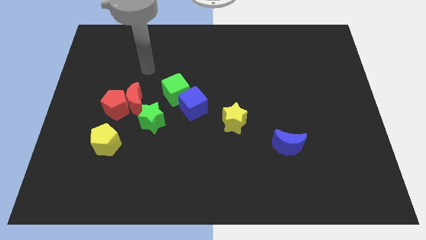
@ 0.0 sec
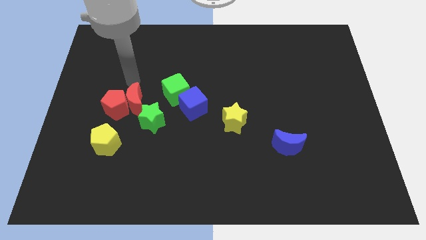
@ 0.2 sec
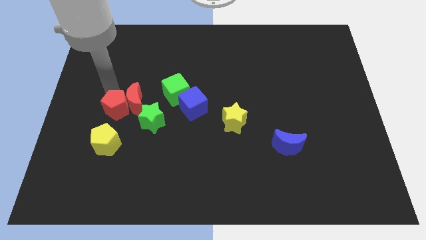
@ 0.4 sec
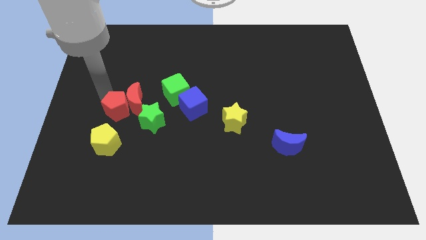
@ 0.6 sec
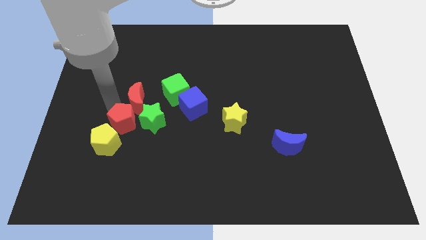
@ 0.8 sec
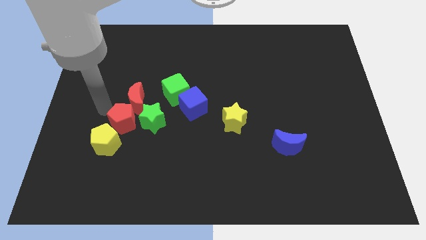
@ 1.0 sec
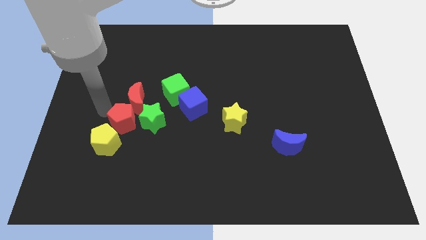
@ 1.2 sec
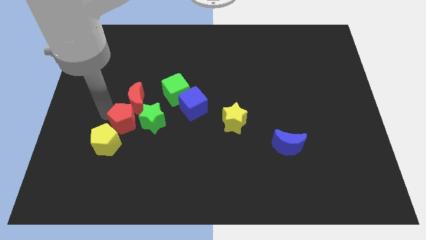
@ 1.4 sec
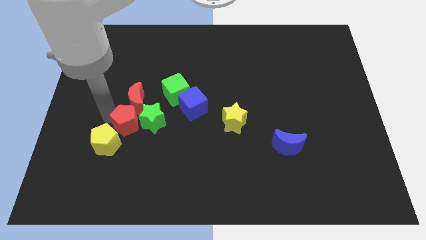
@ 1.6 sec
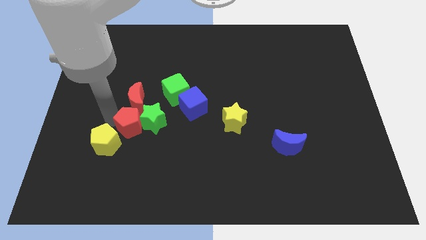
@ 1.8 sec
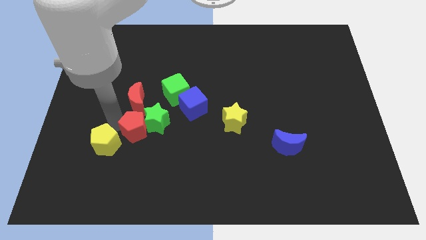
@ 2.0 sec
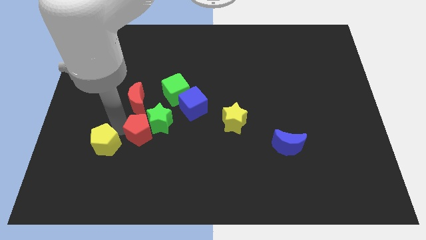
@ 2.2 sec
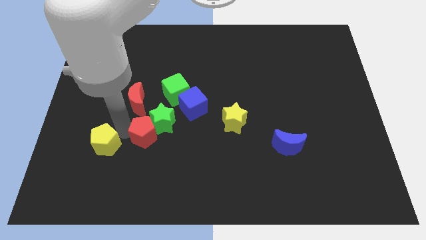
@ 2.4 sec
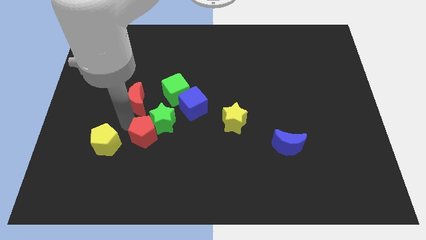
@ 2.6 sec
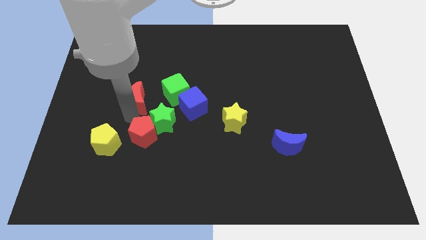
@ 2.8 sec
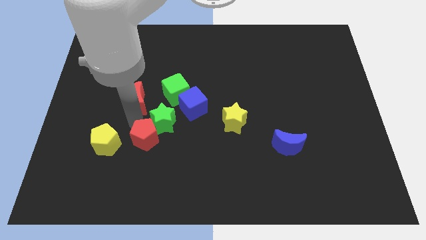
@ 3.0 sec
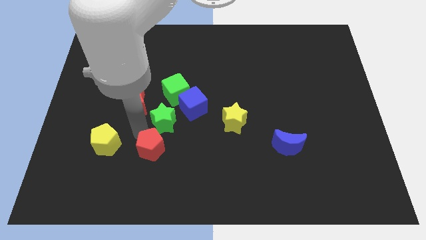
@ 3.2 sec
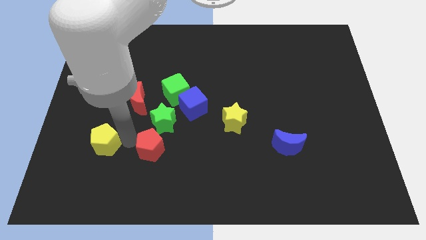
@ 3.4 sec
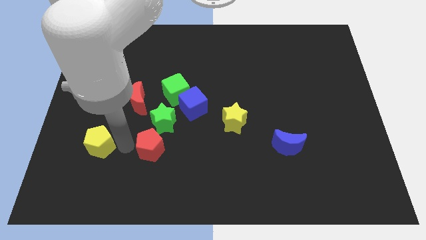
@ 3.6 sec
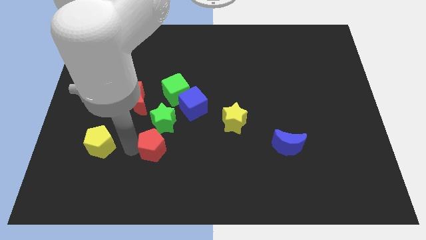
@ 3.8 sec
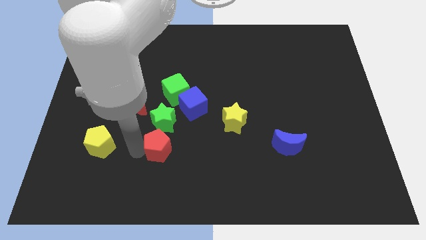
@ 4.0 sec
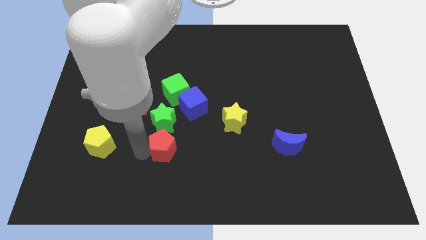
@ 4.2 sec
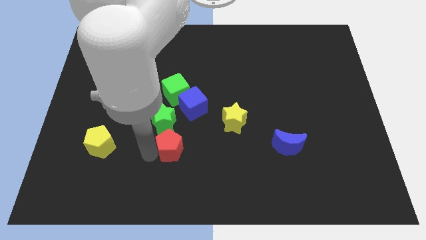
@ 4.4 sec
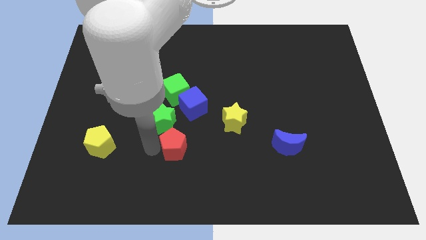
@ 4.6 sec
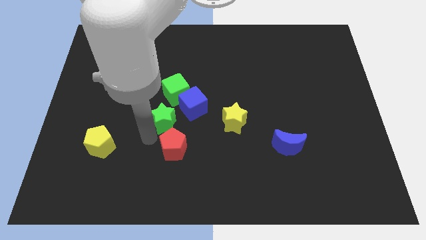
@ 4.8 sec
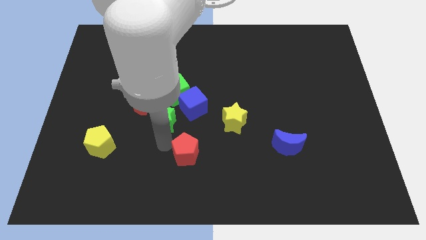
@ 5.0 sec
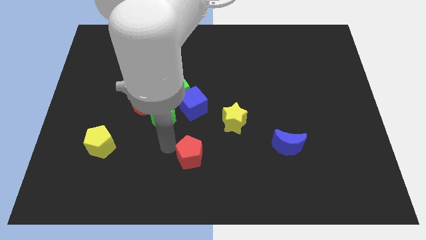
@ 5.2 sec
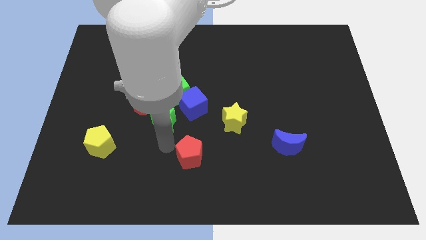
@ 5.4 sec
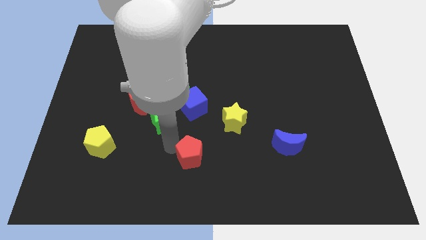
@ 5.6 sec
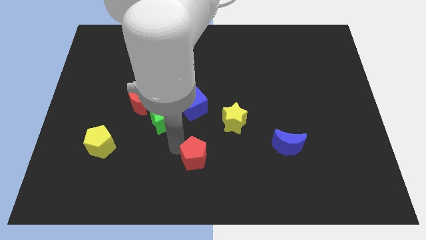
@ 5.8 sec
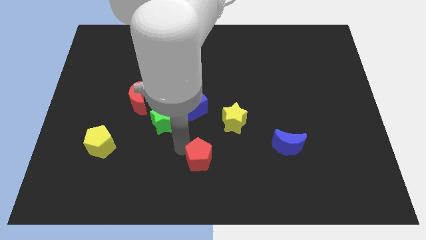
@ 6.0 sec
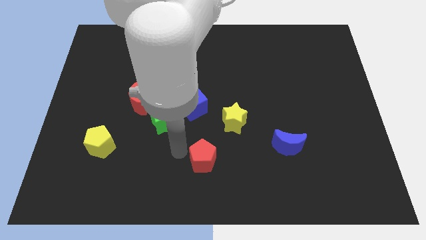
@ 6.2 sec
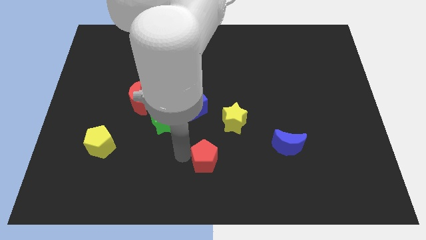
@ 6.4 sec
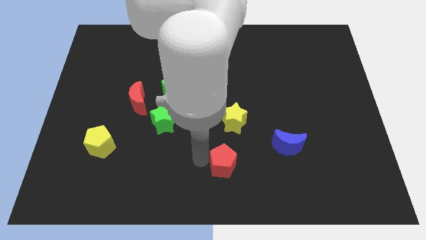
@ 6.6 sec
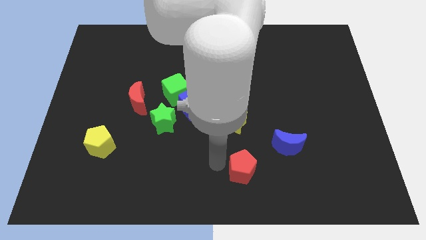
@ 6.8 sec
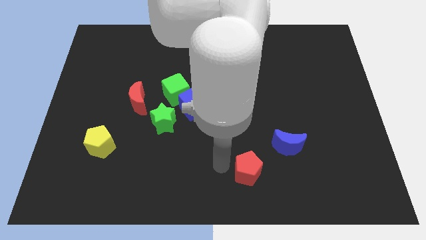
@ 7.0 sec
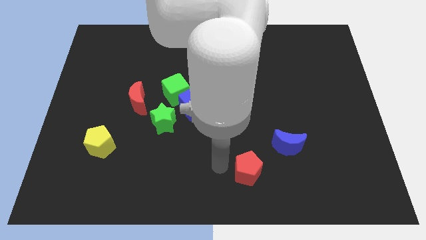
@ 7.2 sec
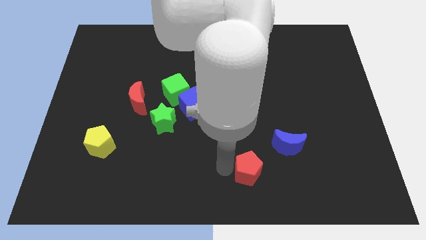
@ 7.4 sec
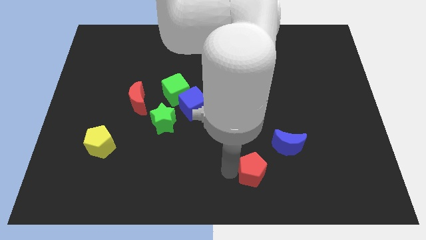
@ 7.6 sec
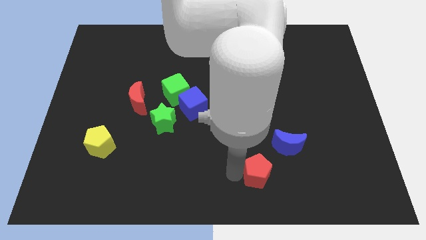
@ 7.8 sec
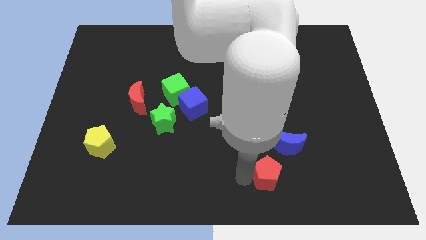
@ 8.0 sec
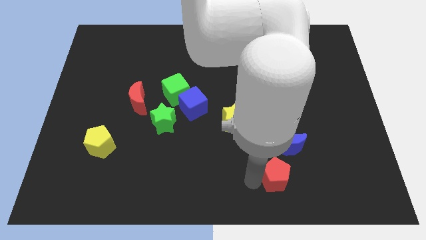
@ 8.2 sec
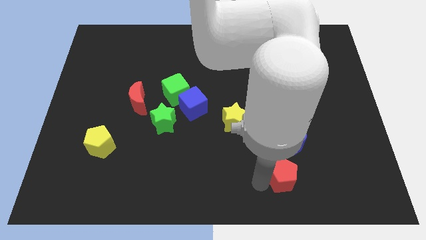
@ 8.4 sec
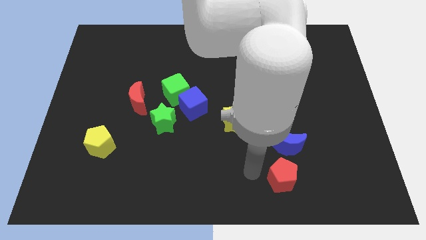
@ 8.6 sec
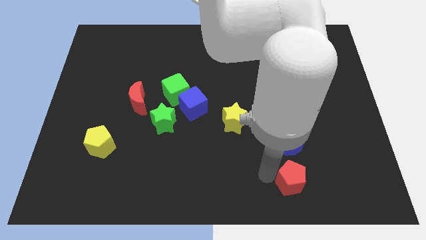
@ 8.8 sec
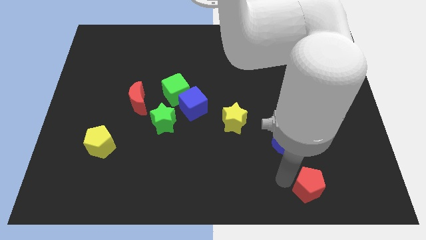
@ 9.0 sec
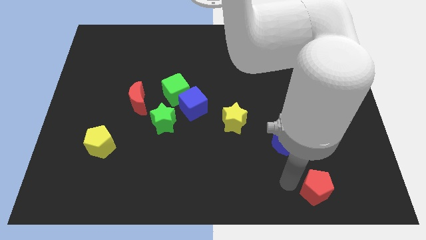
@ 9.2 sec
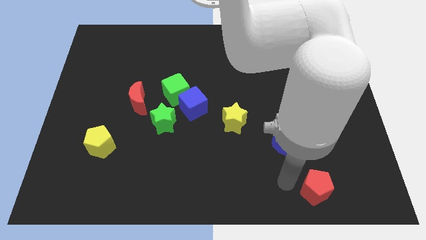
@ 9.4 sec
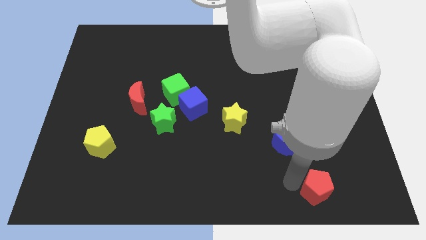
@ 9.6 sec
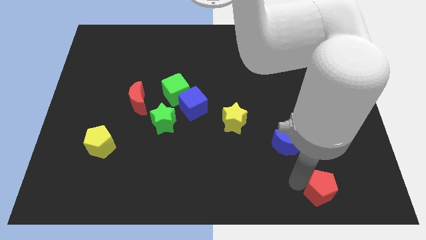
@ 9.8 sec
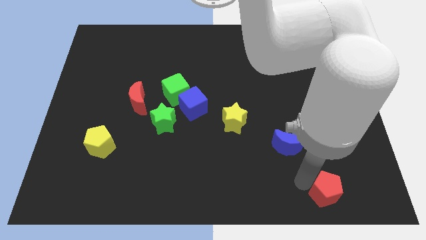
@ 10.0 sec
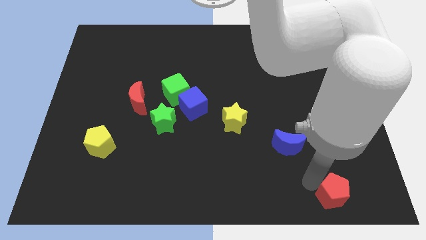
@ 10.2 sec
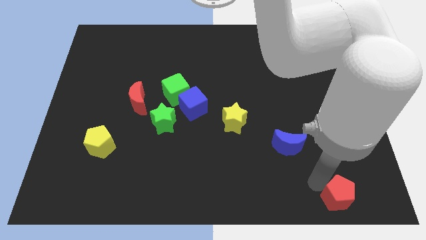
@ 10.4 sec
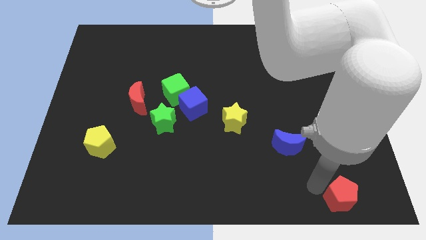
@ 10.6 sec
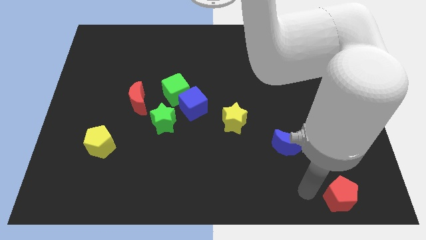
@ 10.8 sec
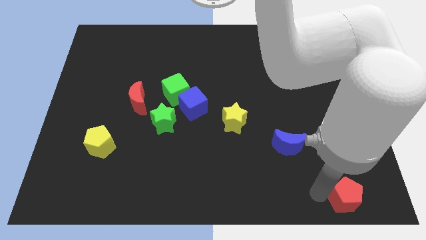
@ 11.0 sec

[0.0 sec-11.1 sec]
push the red pentagon to the bottom right

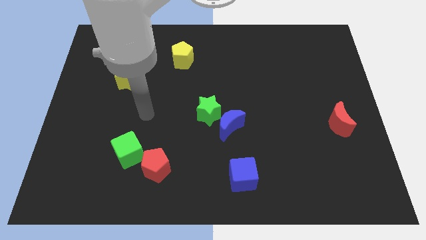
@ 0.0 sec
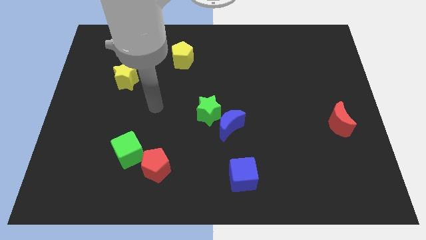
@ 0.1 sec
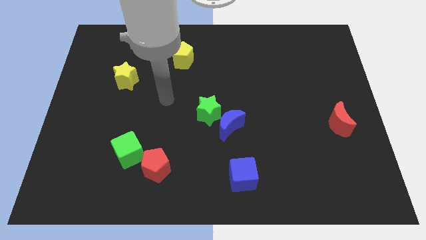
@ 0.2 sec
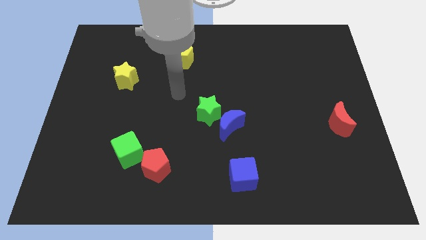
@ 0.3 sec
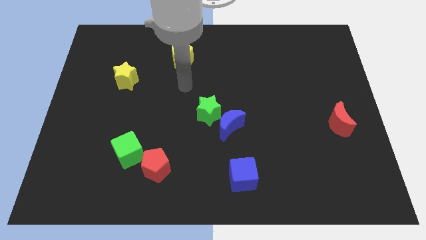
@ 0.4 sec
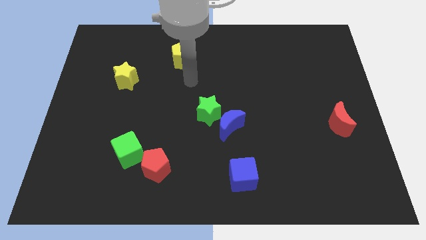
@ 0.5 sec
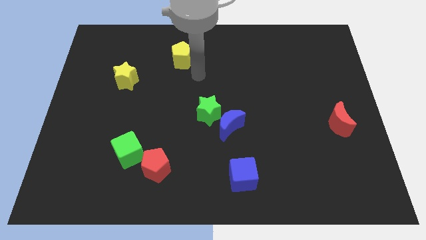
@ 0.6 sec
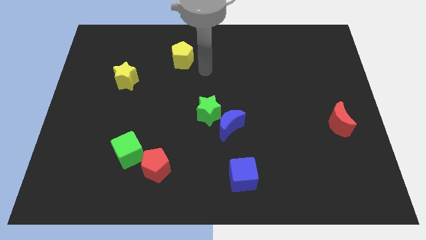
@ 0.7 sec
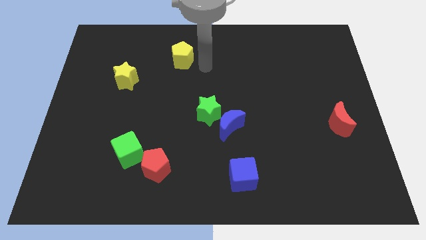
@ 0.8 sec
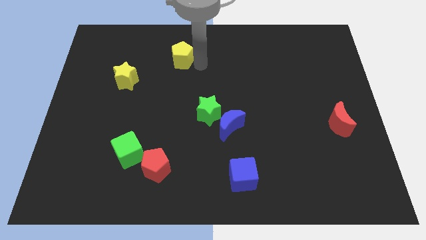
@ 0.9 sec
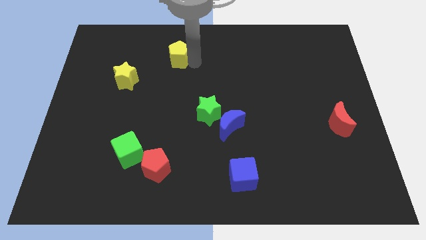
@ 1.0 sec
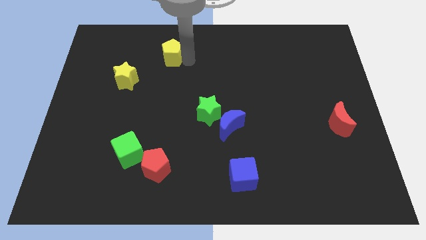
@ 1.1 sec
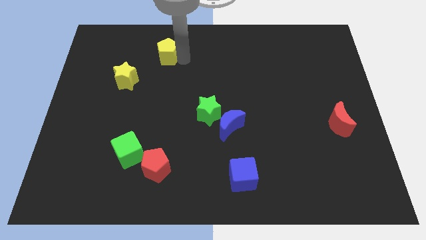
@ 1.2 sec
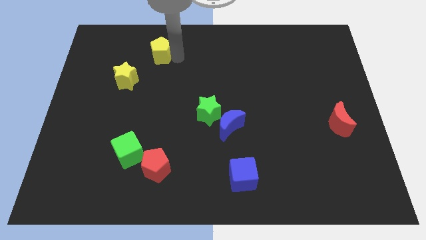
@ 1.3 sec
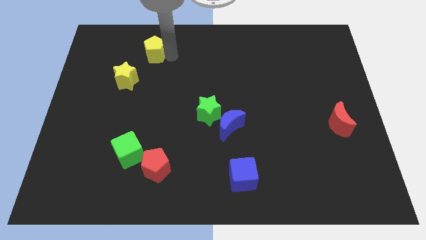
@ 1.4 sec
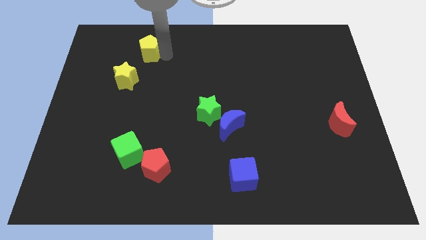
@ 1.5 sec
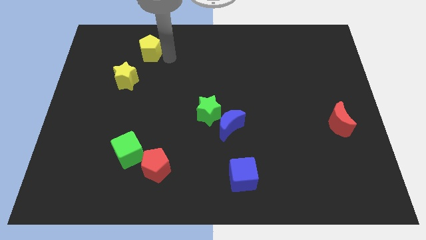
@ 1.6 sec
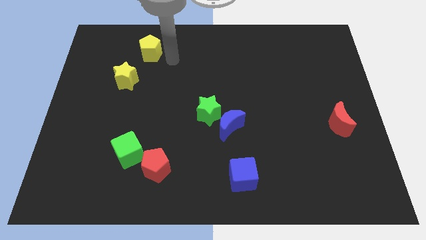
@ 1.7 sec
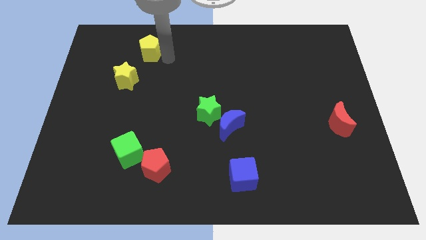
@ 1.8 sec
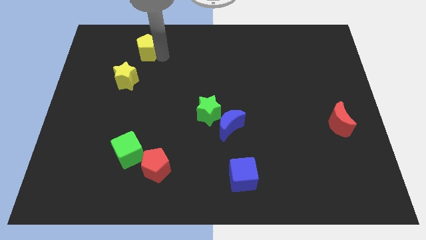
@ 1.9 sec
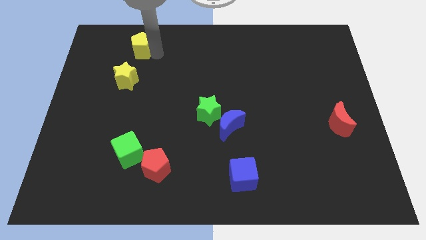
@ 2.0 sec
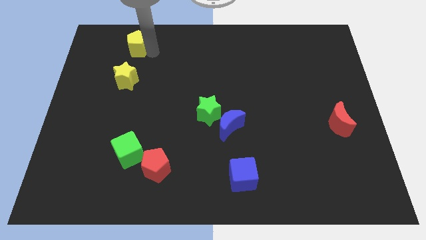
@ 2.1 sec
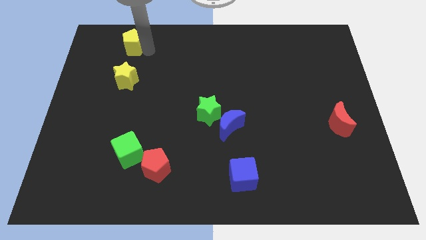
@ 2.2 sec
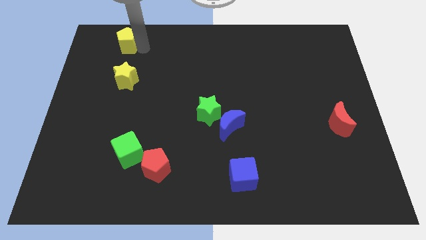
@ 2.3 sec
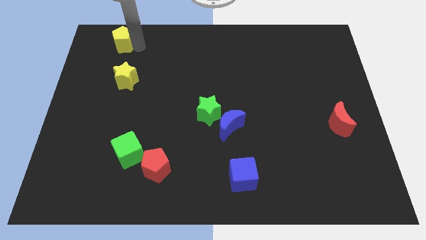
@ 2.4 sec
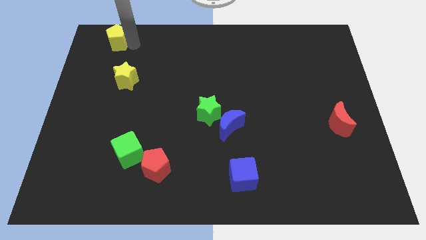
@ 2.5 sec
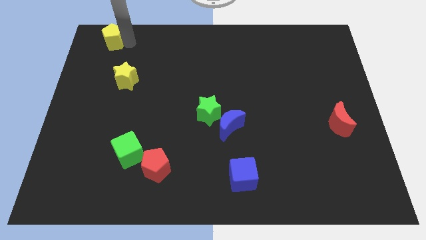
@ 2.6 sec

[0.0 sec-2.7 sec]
push the yellow pentagon to the upper left corner
